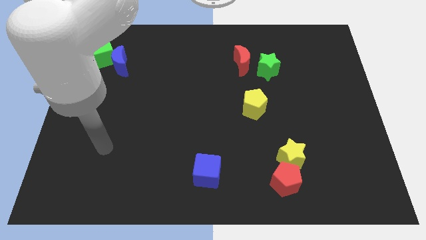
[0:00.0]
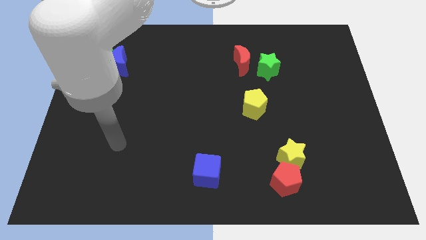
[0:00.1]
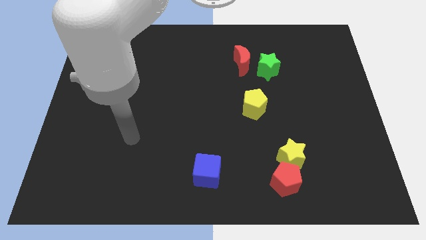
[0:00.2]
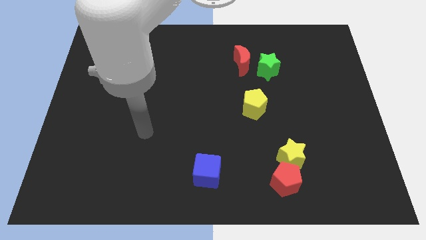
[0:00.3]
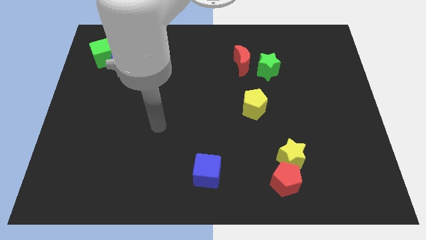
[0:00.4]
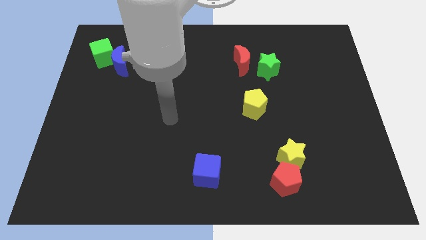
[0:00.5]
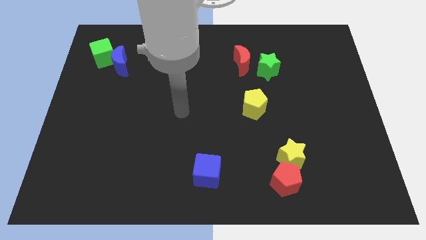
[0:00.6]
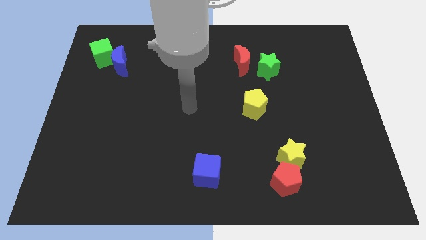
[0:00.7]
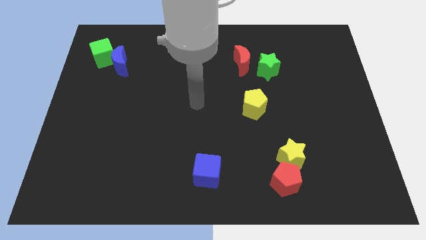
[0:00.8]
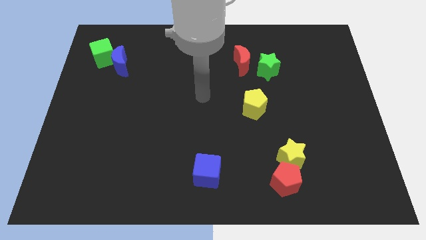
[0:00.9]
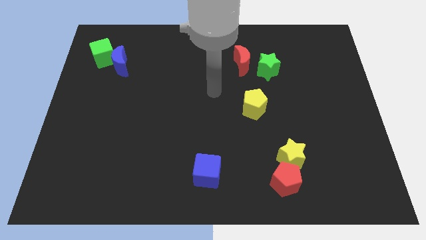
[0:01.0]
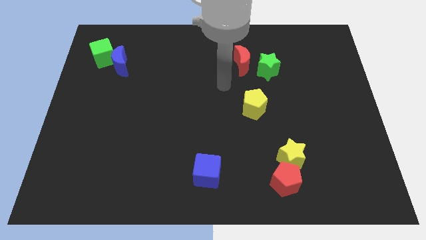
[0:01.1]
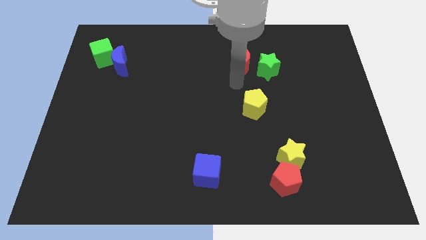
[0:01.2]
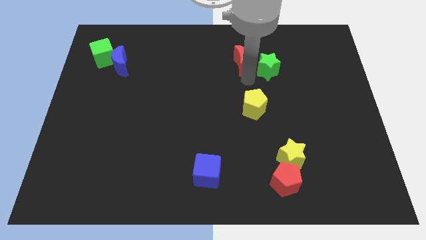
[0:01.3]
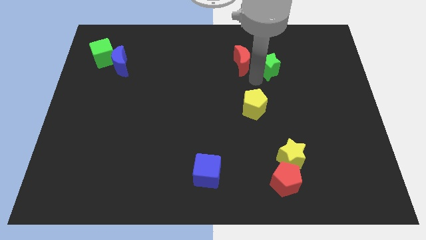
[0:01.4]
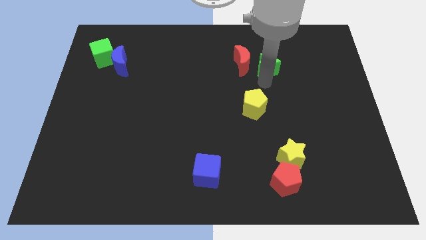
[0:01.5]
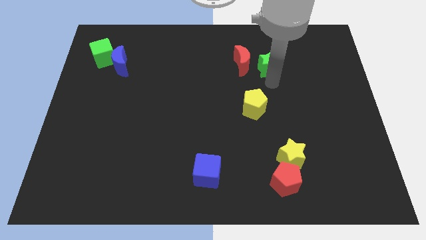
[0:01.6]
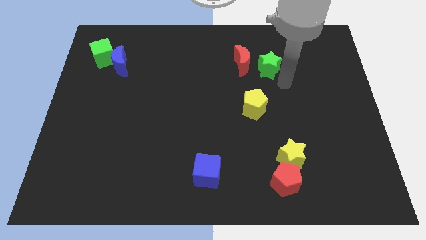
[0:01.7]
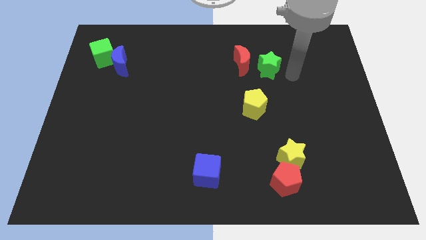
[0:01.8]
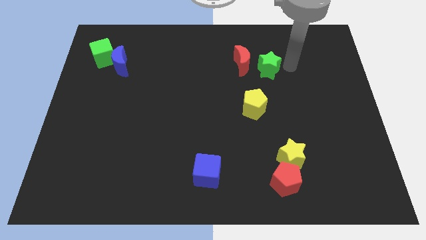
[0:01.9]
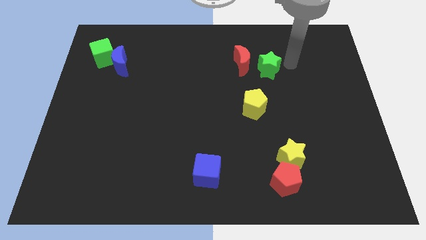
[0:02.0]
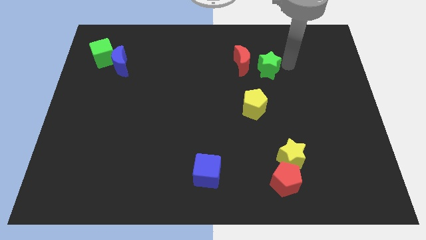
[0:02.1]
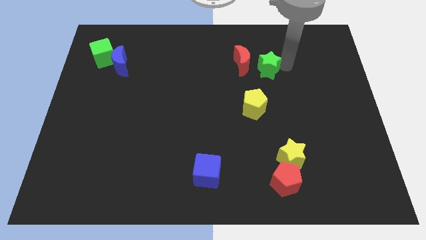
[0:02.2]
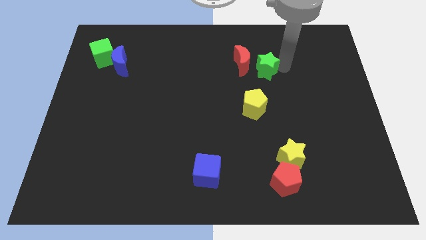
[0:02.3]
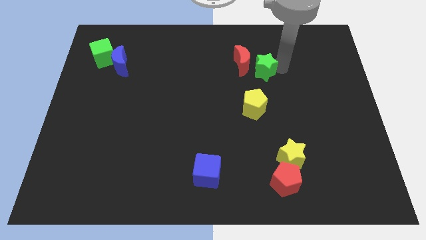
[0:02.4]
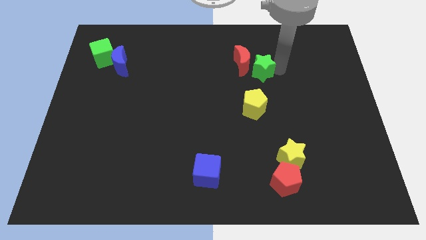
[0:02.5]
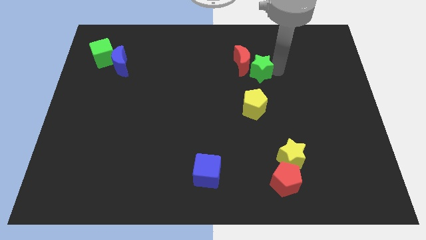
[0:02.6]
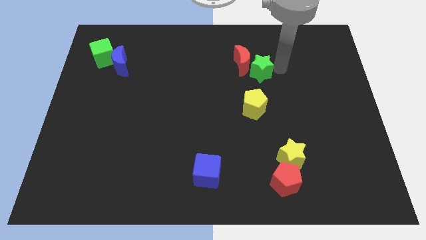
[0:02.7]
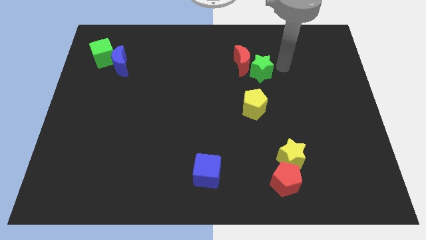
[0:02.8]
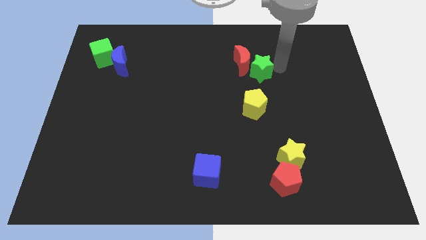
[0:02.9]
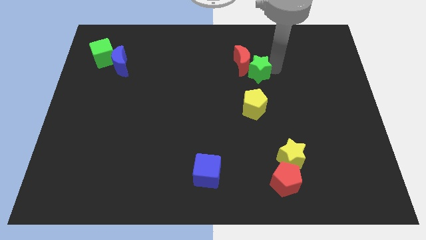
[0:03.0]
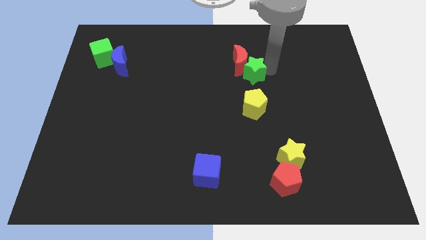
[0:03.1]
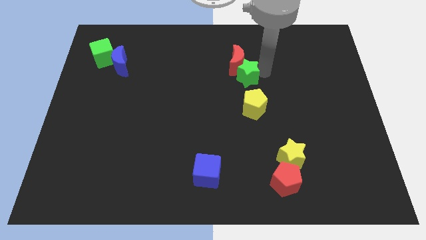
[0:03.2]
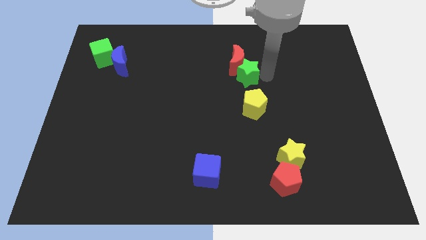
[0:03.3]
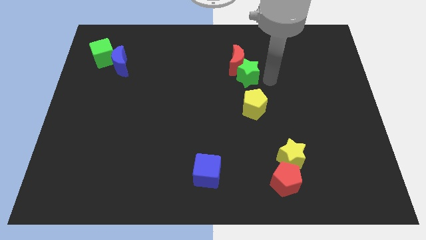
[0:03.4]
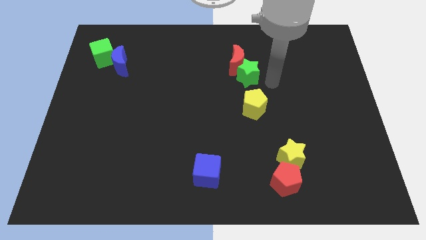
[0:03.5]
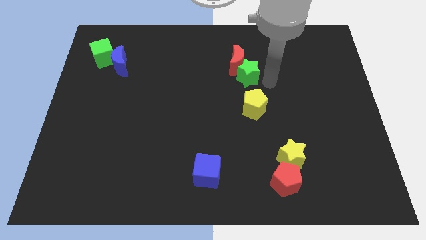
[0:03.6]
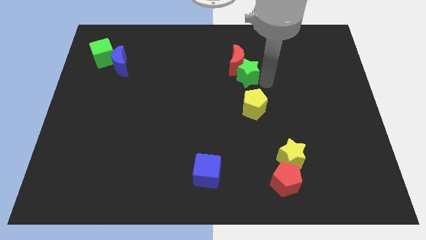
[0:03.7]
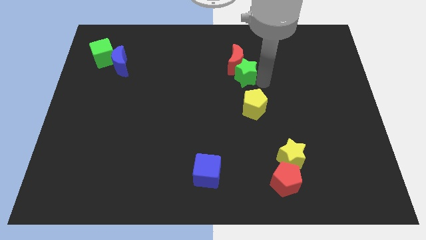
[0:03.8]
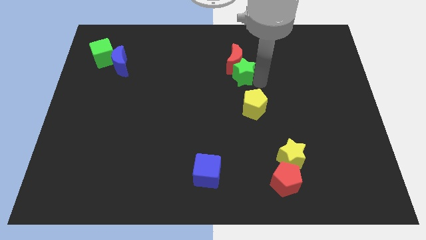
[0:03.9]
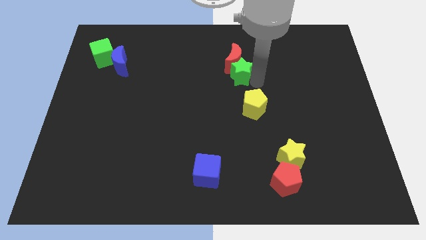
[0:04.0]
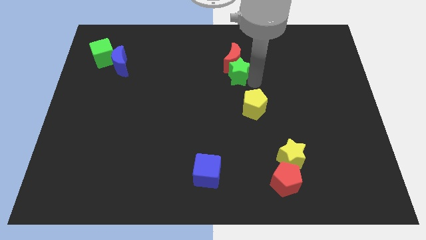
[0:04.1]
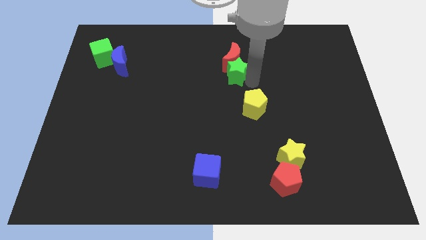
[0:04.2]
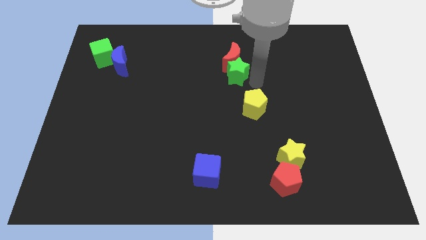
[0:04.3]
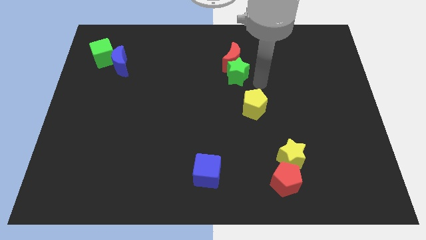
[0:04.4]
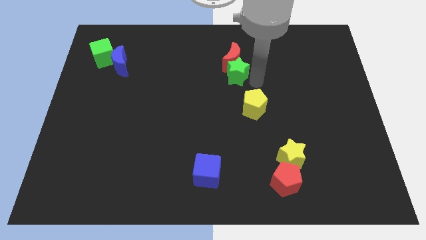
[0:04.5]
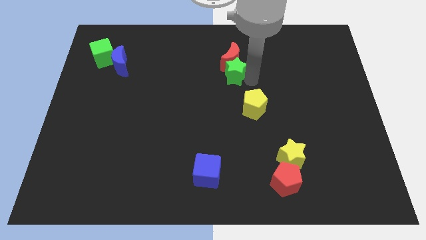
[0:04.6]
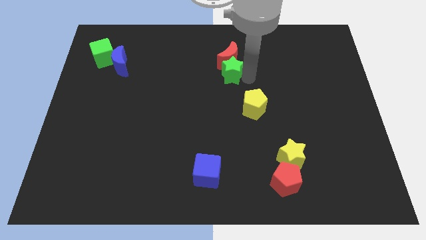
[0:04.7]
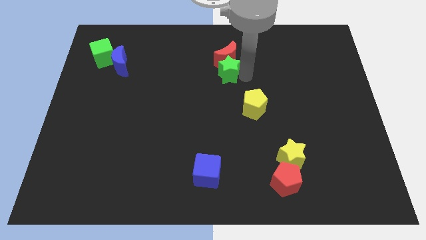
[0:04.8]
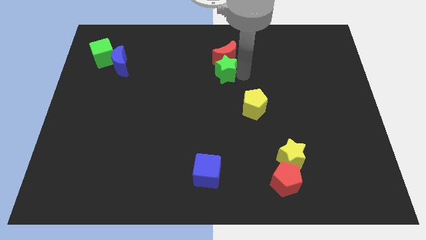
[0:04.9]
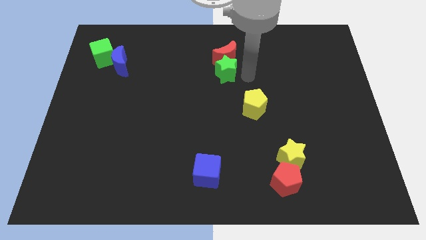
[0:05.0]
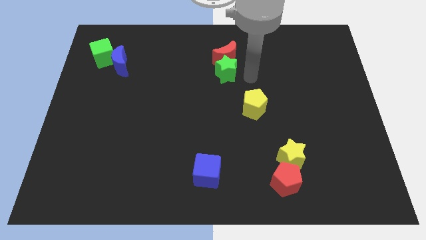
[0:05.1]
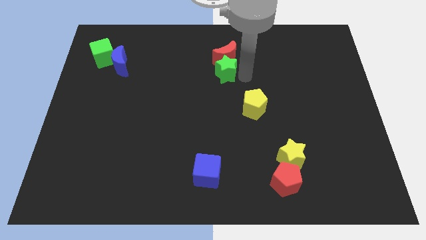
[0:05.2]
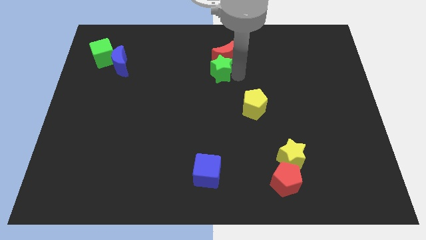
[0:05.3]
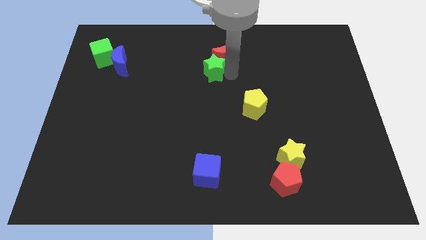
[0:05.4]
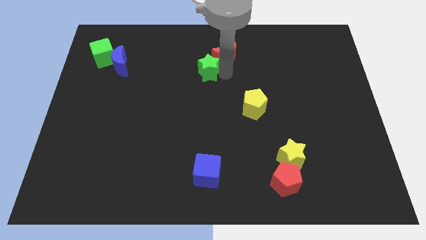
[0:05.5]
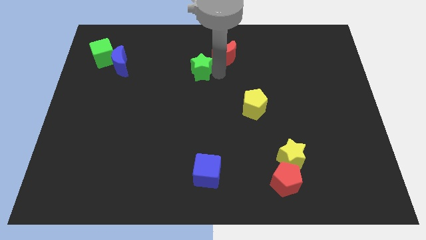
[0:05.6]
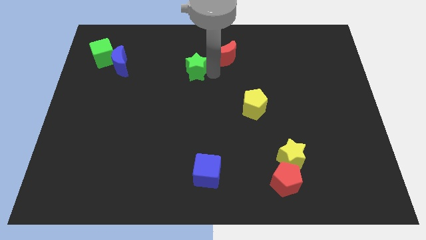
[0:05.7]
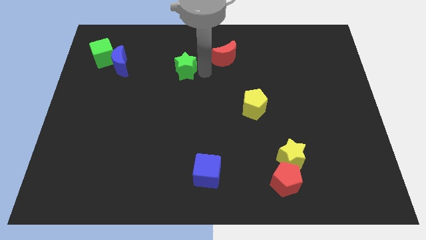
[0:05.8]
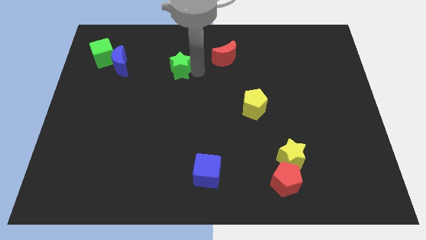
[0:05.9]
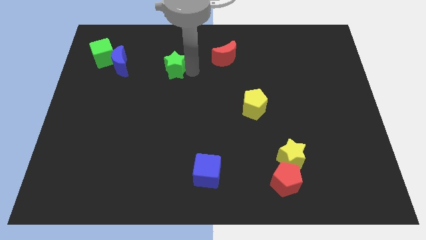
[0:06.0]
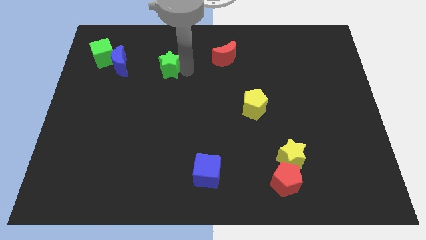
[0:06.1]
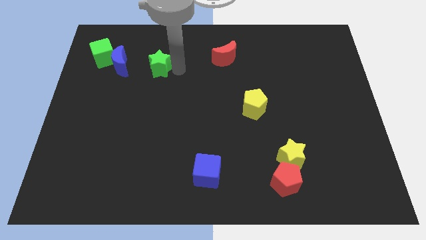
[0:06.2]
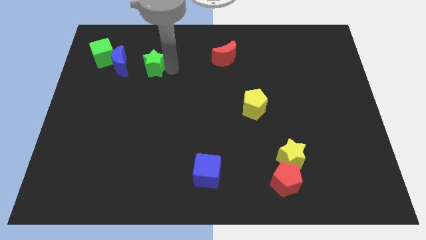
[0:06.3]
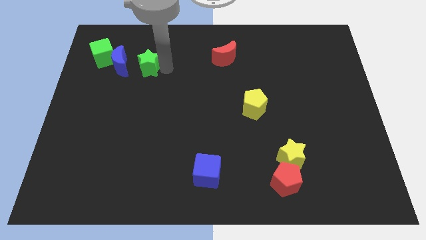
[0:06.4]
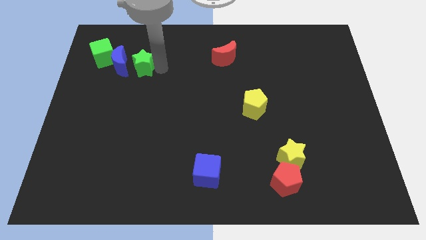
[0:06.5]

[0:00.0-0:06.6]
push the green star towards the blue moon

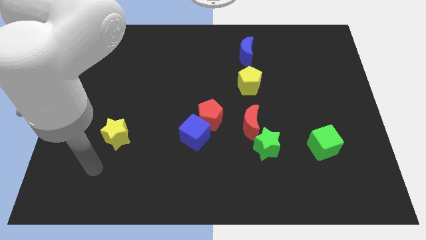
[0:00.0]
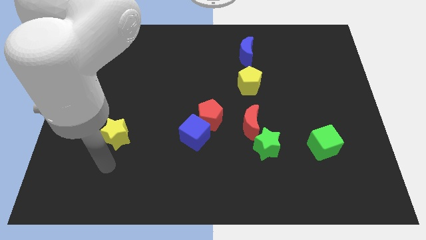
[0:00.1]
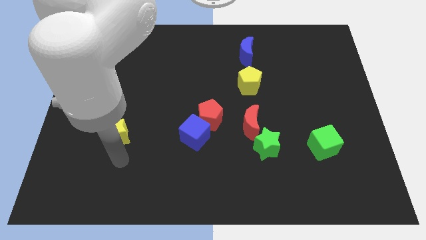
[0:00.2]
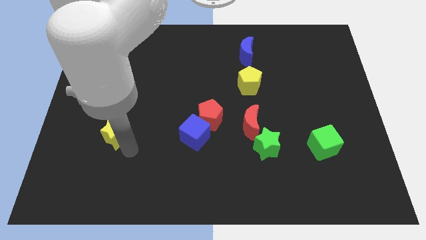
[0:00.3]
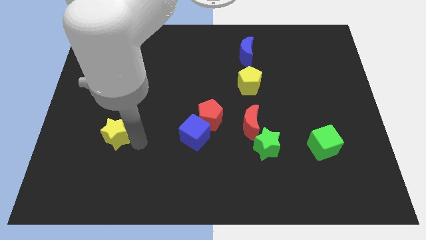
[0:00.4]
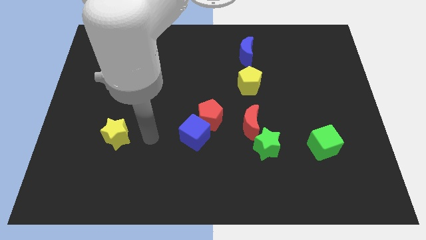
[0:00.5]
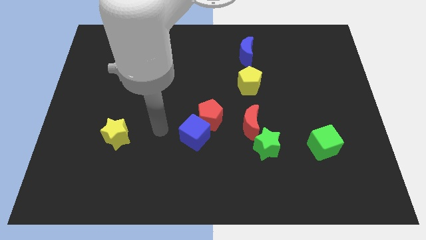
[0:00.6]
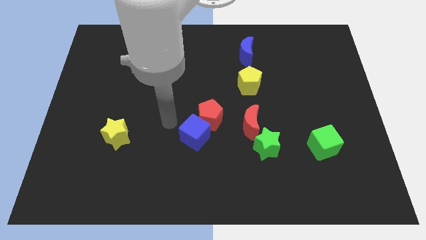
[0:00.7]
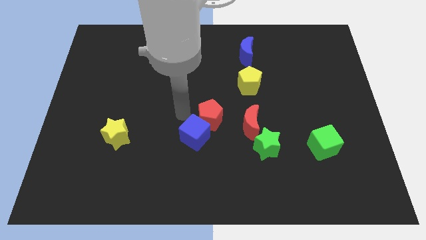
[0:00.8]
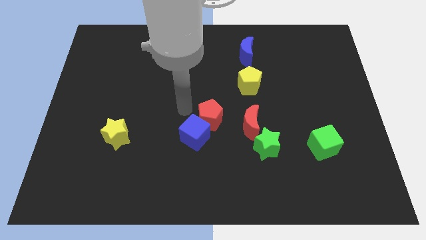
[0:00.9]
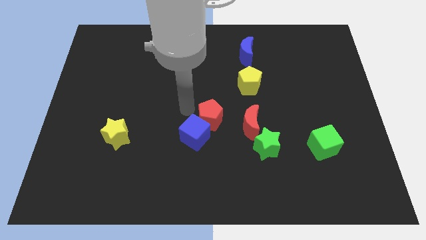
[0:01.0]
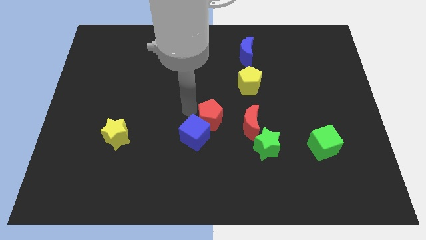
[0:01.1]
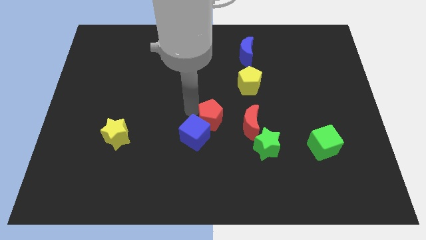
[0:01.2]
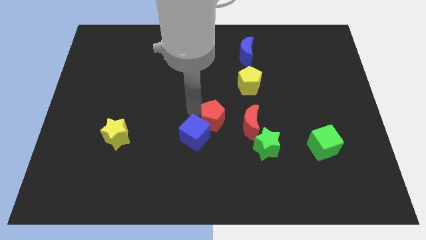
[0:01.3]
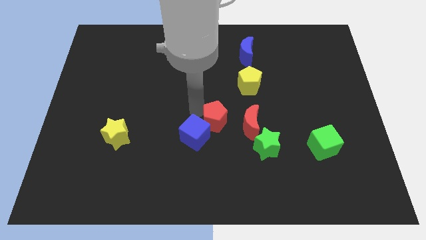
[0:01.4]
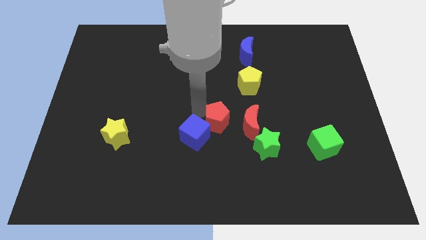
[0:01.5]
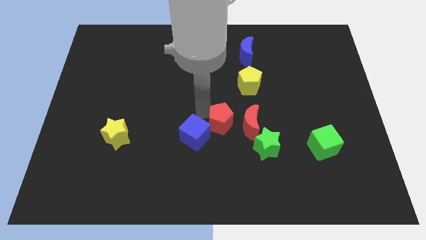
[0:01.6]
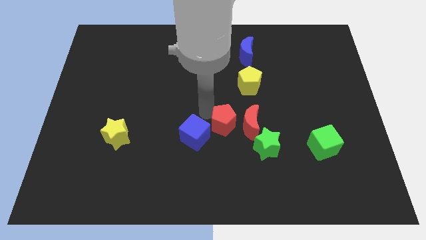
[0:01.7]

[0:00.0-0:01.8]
put the red pentagon towards the red moon

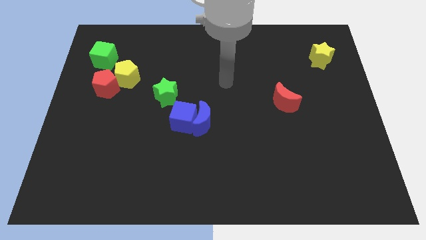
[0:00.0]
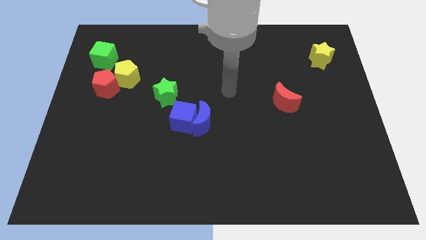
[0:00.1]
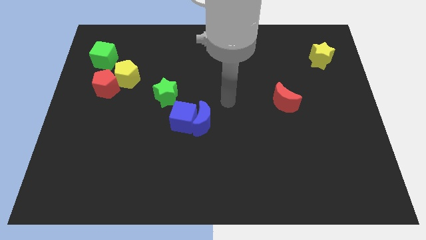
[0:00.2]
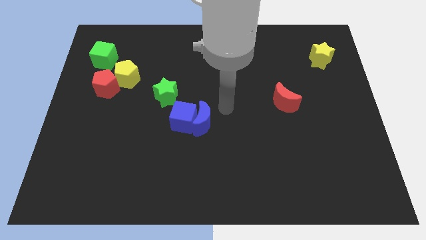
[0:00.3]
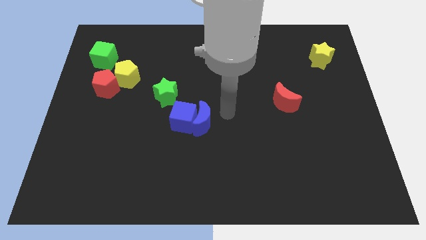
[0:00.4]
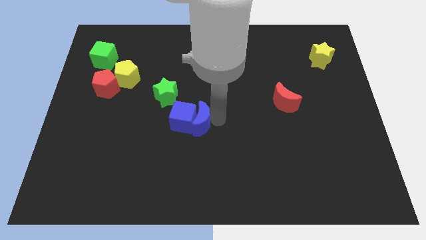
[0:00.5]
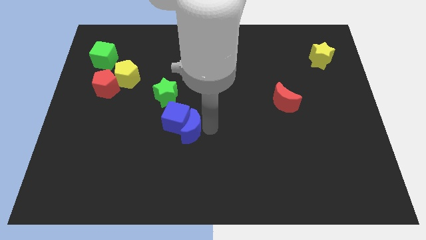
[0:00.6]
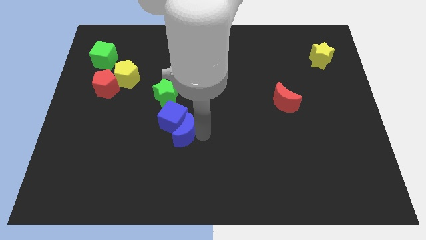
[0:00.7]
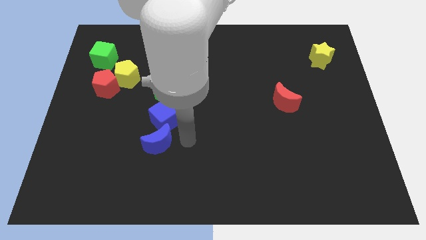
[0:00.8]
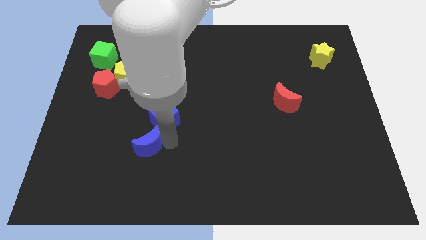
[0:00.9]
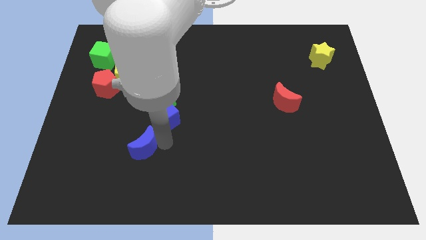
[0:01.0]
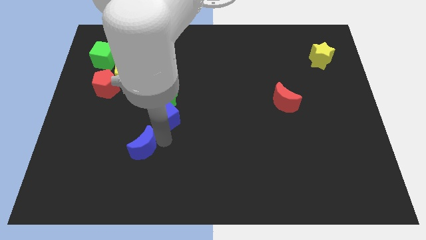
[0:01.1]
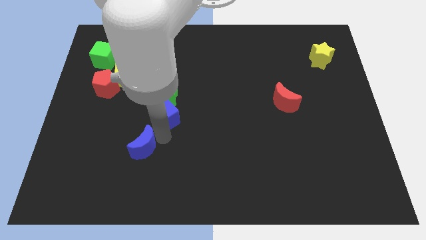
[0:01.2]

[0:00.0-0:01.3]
move the blue cube to the green star
